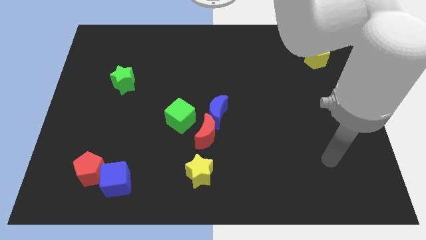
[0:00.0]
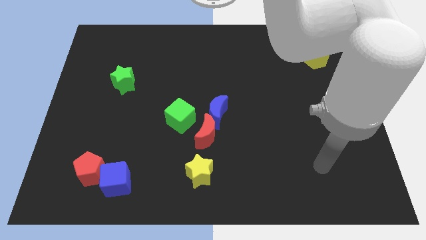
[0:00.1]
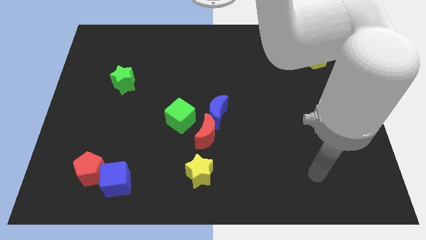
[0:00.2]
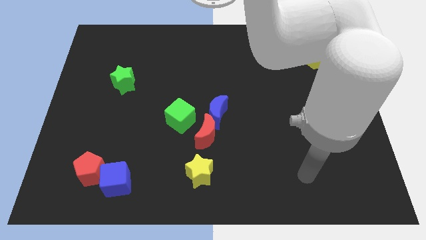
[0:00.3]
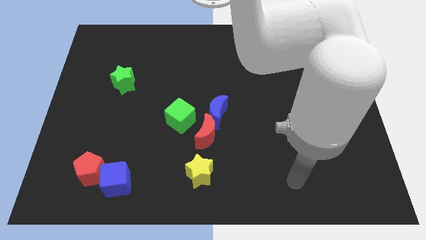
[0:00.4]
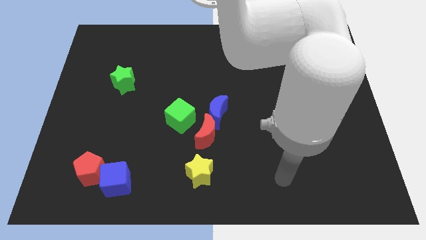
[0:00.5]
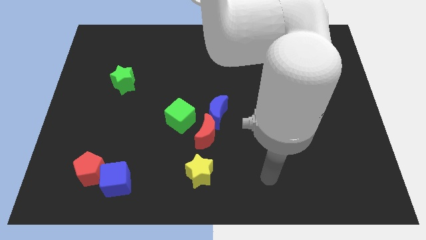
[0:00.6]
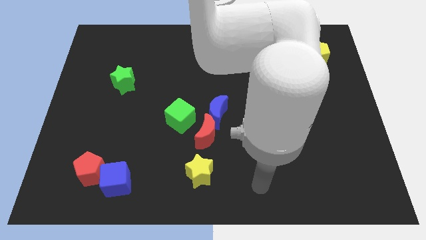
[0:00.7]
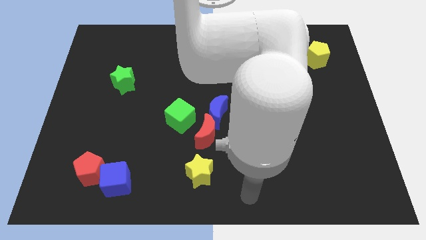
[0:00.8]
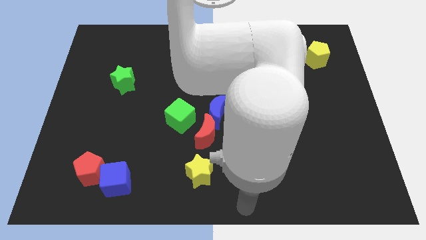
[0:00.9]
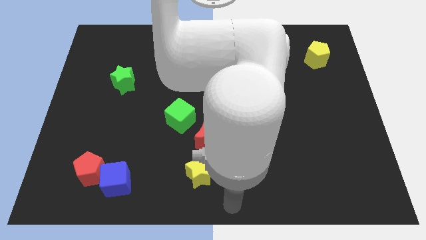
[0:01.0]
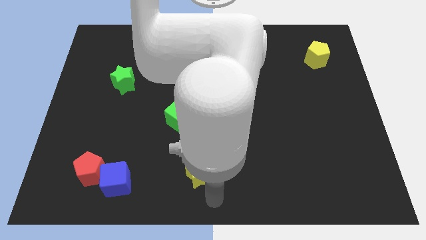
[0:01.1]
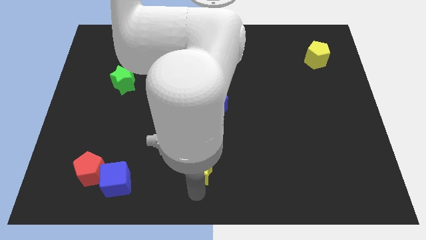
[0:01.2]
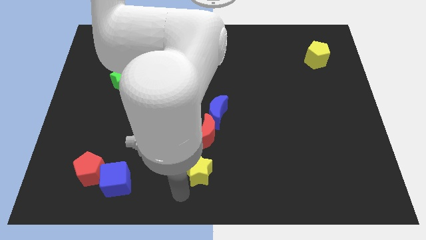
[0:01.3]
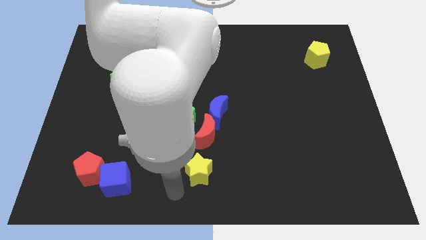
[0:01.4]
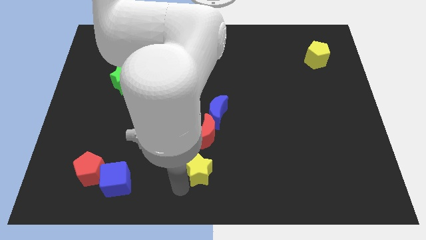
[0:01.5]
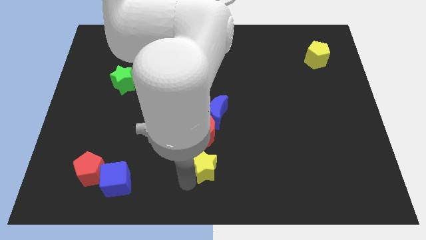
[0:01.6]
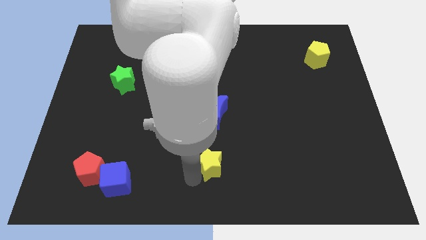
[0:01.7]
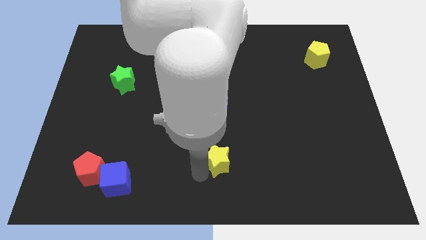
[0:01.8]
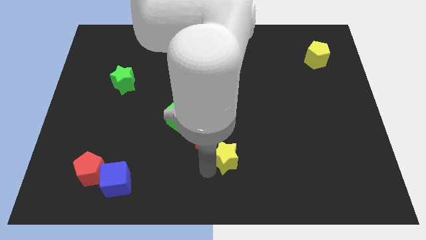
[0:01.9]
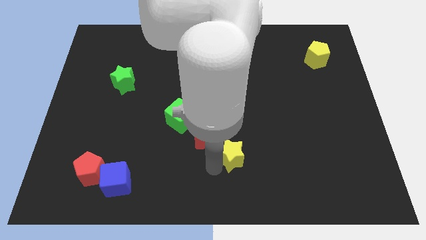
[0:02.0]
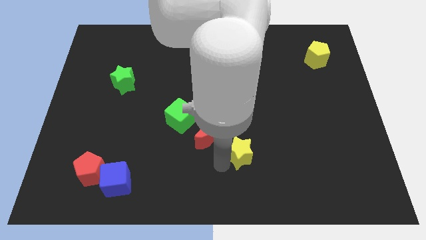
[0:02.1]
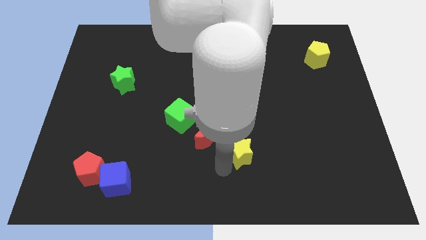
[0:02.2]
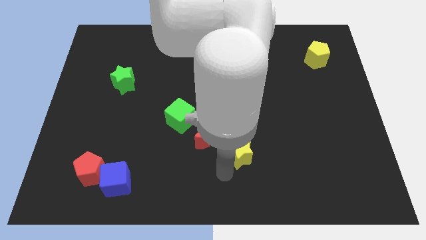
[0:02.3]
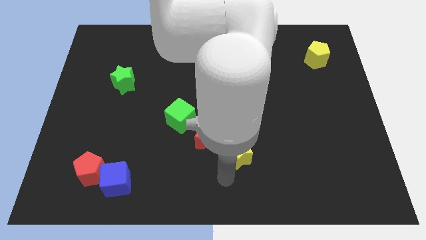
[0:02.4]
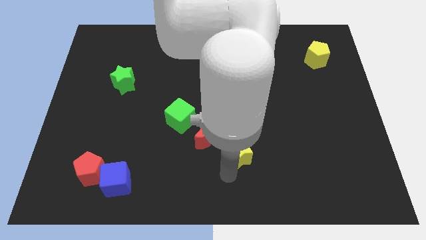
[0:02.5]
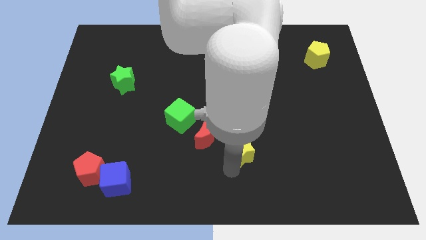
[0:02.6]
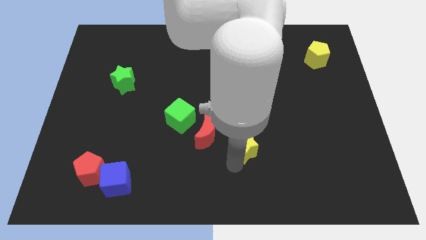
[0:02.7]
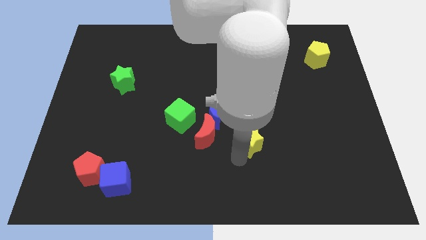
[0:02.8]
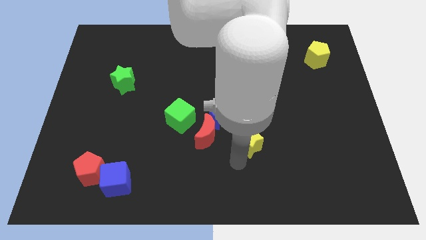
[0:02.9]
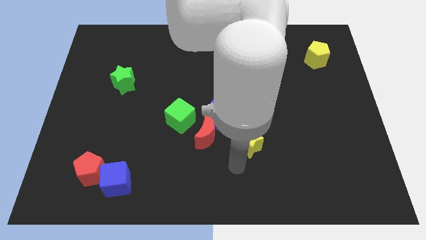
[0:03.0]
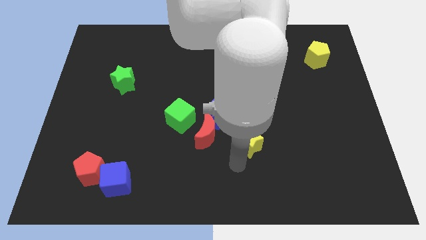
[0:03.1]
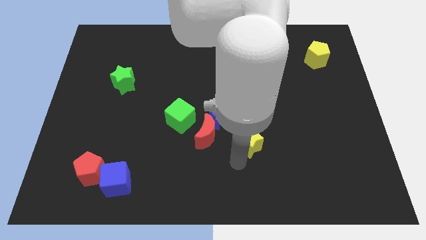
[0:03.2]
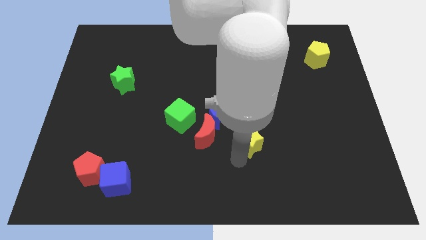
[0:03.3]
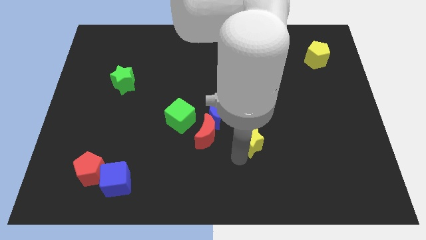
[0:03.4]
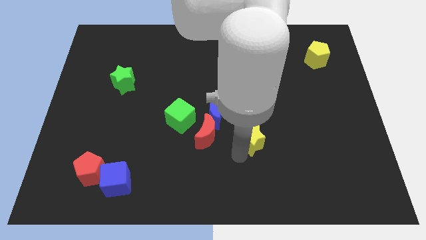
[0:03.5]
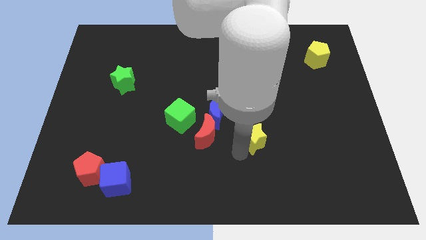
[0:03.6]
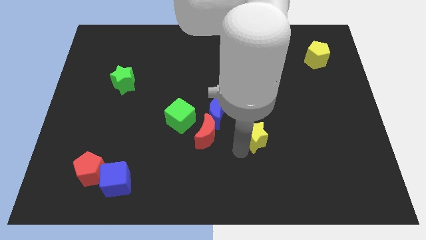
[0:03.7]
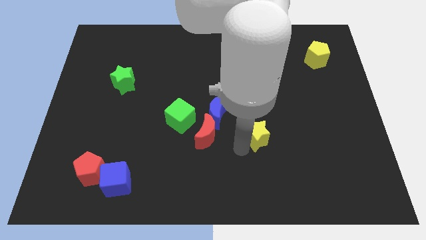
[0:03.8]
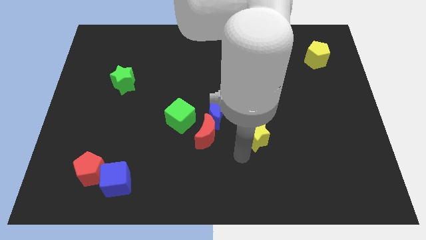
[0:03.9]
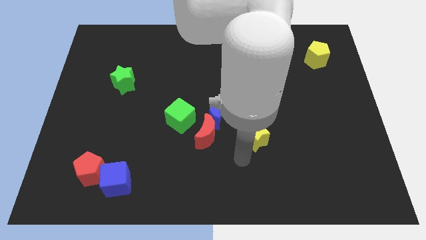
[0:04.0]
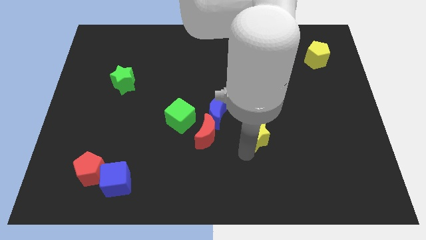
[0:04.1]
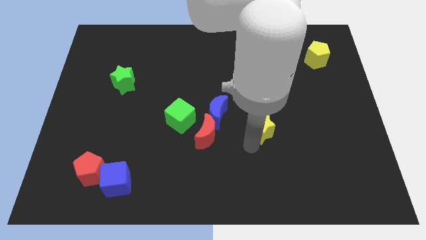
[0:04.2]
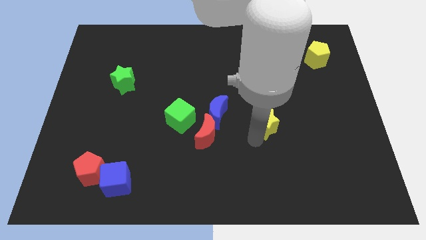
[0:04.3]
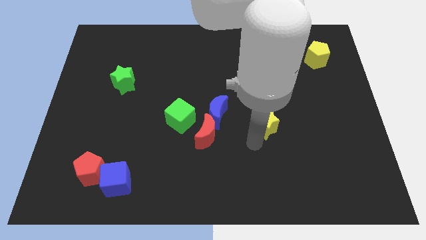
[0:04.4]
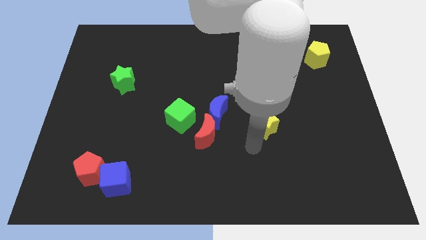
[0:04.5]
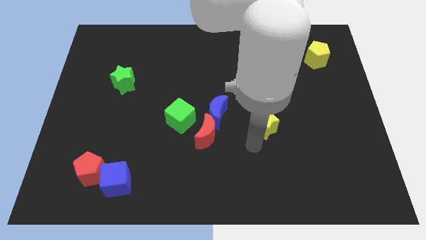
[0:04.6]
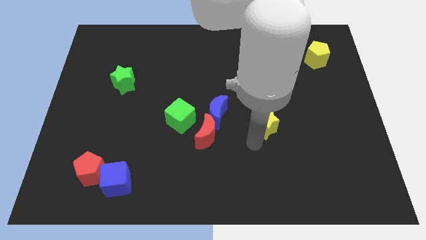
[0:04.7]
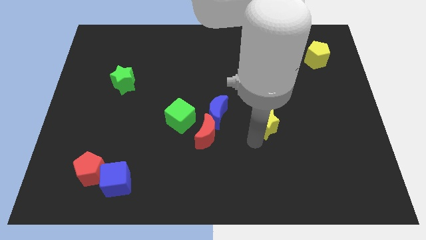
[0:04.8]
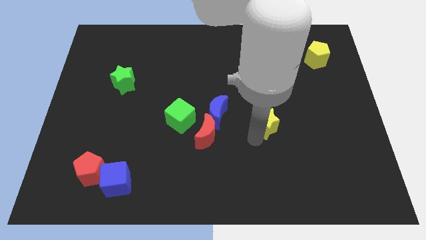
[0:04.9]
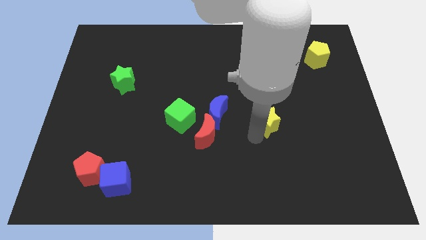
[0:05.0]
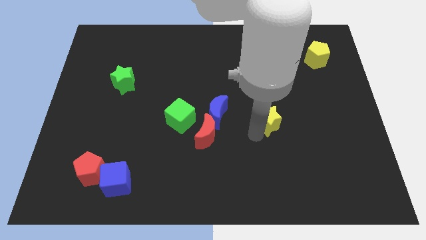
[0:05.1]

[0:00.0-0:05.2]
push the yellow star up and right

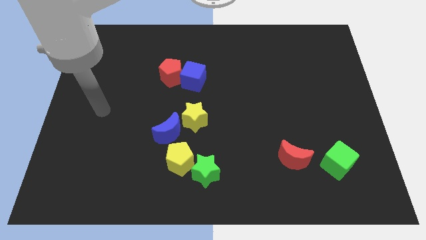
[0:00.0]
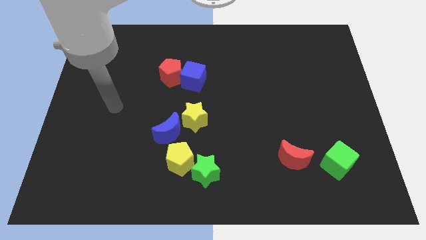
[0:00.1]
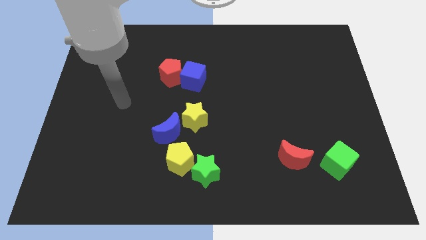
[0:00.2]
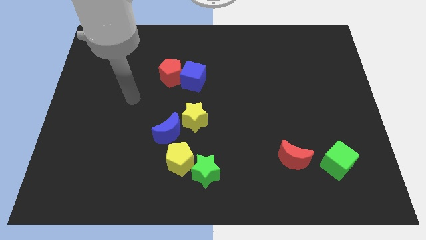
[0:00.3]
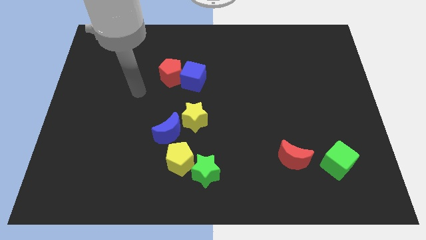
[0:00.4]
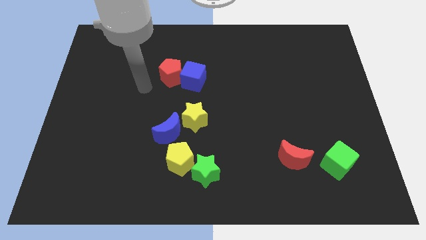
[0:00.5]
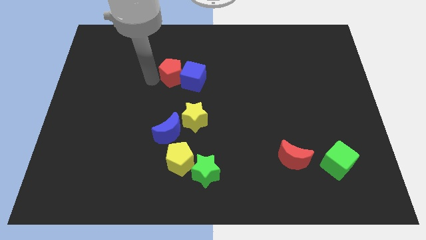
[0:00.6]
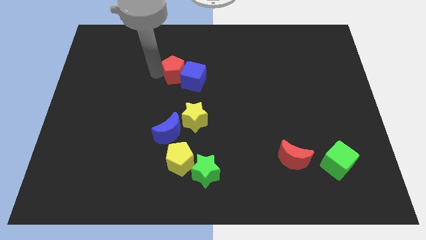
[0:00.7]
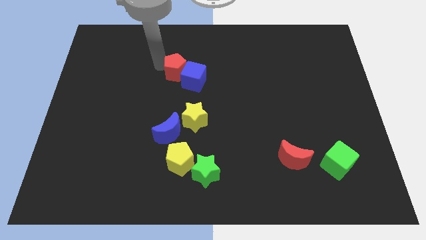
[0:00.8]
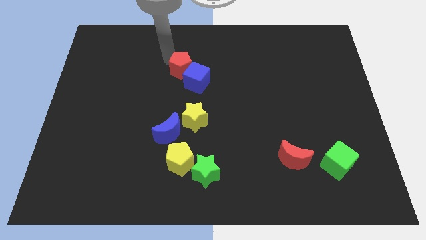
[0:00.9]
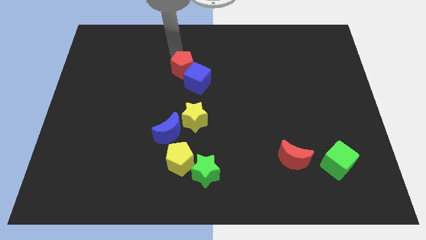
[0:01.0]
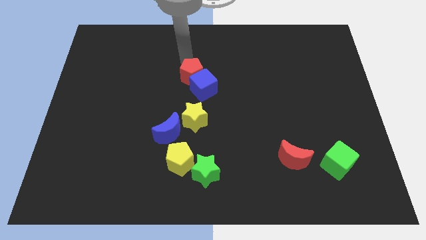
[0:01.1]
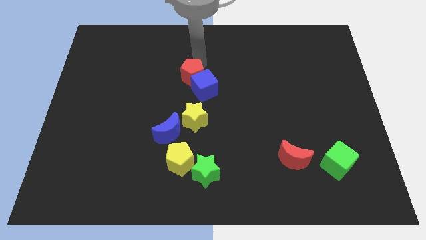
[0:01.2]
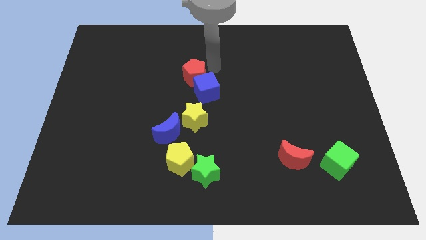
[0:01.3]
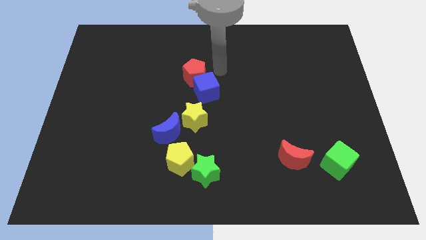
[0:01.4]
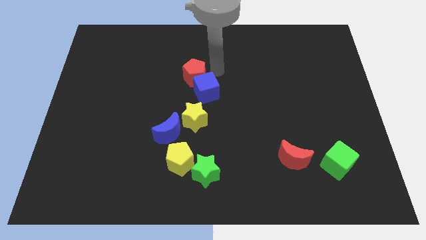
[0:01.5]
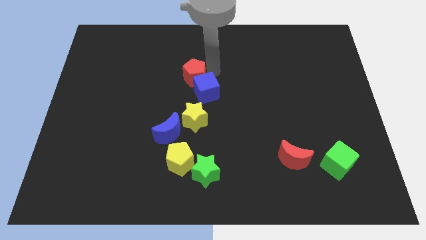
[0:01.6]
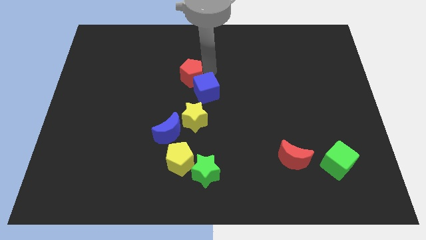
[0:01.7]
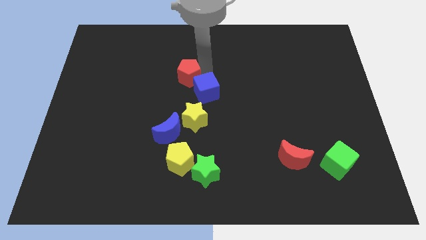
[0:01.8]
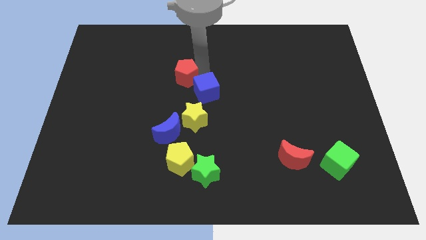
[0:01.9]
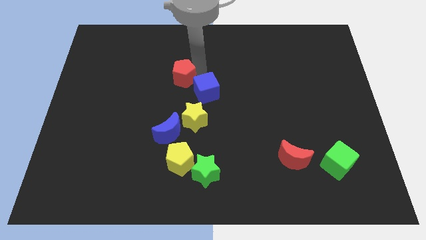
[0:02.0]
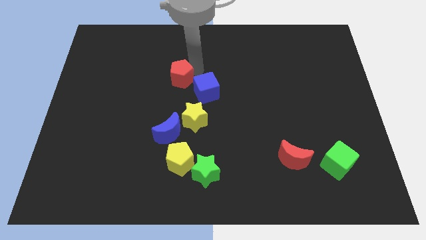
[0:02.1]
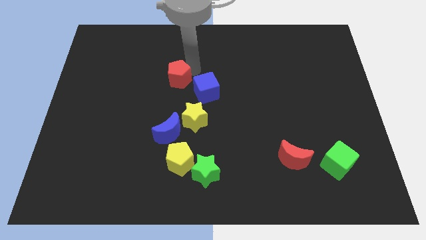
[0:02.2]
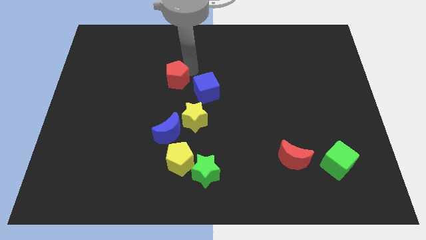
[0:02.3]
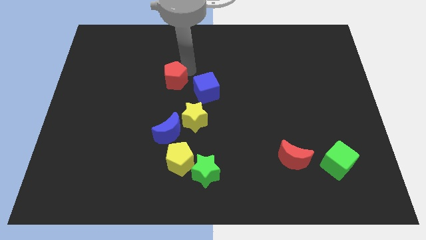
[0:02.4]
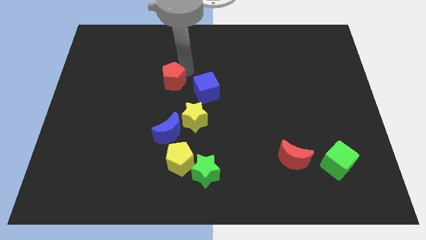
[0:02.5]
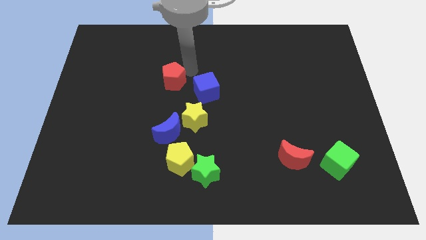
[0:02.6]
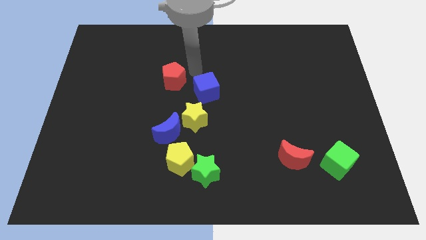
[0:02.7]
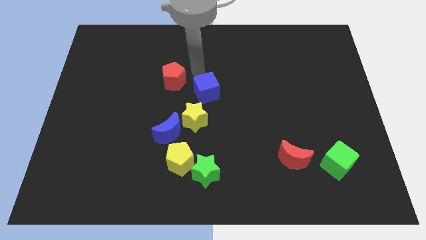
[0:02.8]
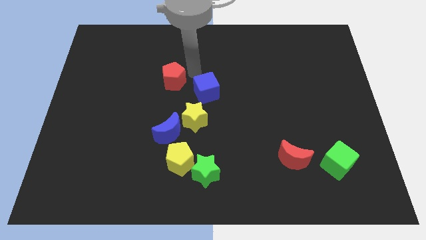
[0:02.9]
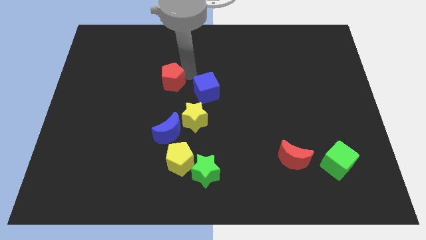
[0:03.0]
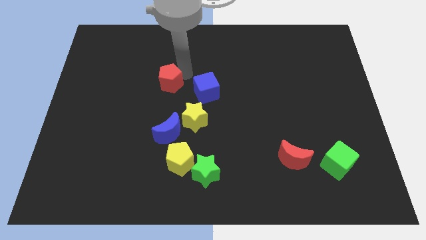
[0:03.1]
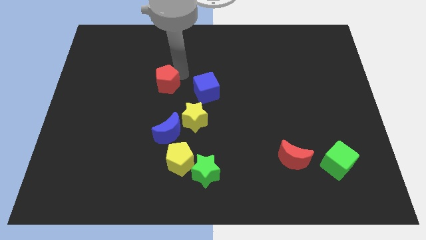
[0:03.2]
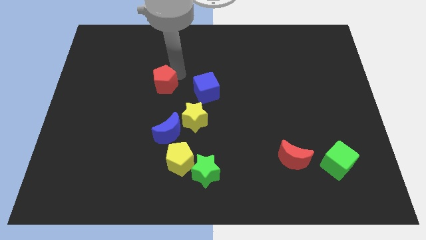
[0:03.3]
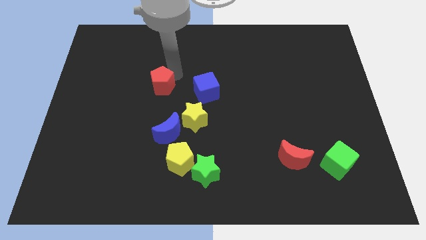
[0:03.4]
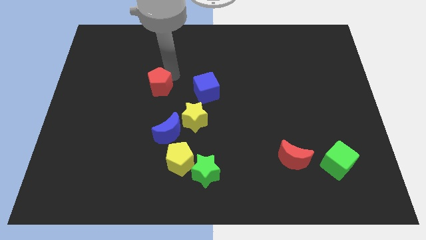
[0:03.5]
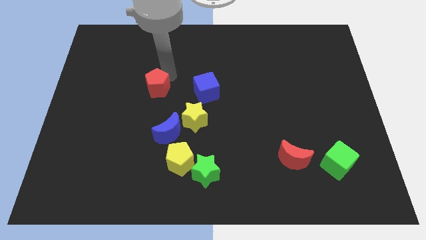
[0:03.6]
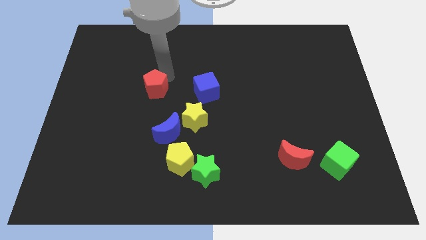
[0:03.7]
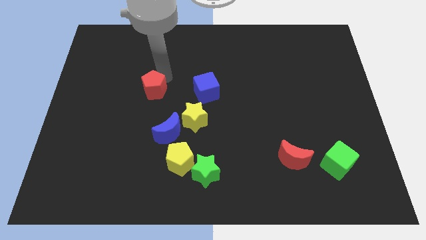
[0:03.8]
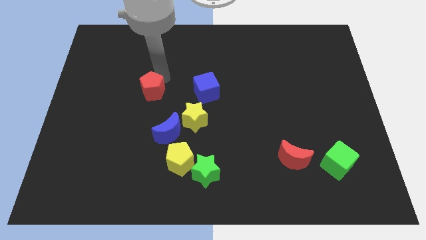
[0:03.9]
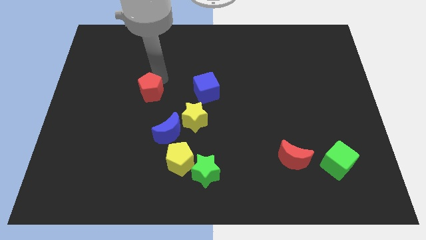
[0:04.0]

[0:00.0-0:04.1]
move the red pentagon diagonally down and to the left a little bit
